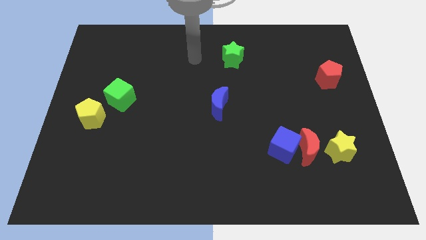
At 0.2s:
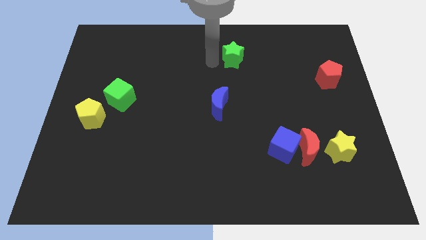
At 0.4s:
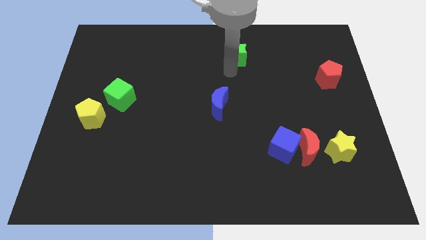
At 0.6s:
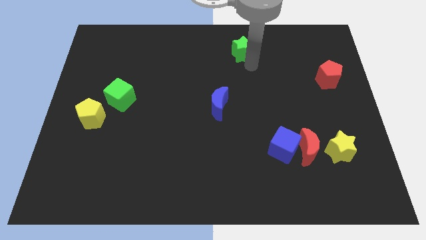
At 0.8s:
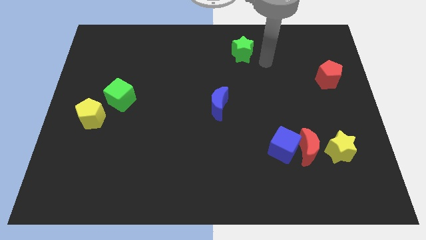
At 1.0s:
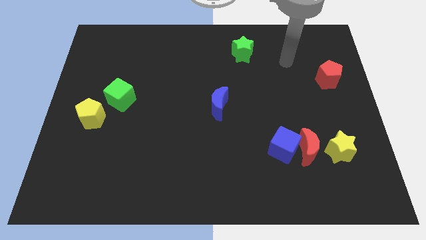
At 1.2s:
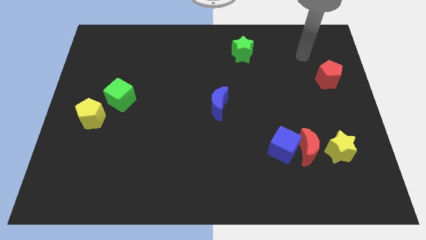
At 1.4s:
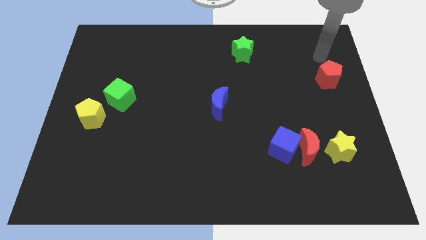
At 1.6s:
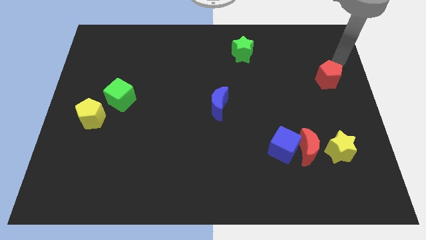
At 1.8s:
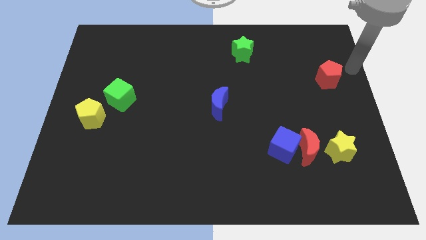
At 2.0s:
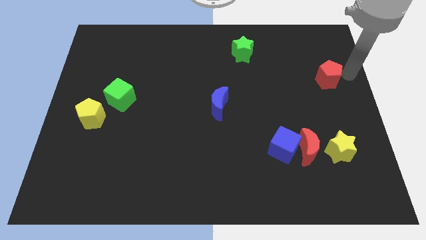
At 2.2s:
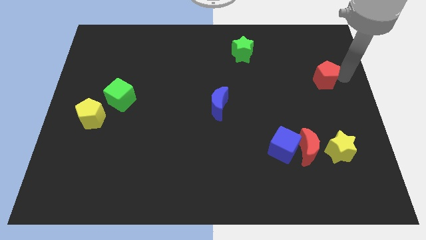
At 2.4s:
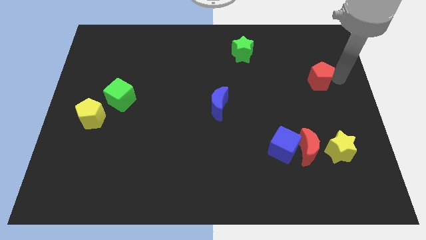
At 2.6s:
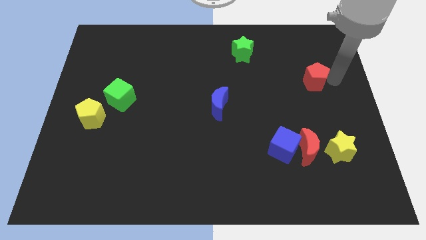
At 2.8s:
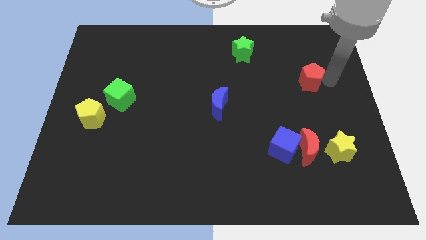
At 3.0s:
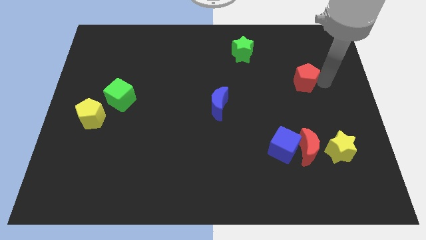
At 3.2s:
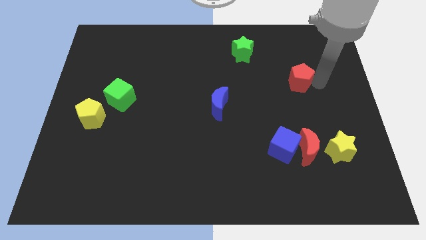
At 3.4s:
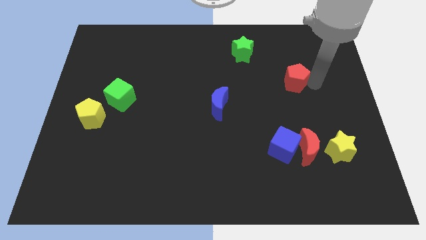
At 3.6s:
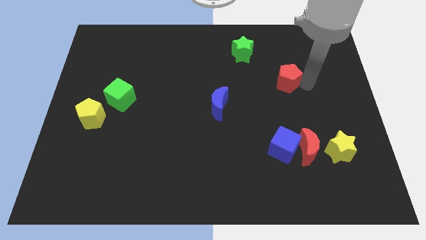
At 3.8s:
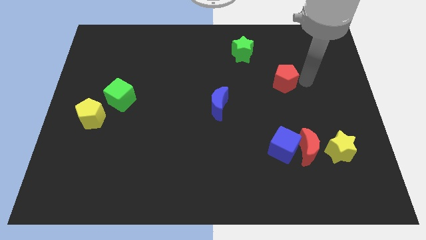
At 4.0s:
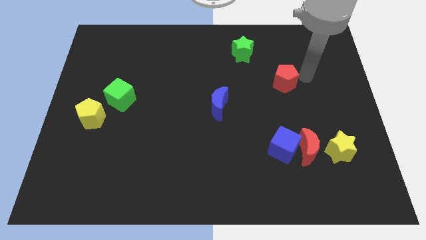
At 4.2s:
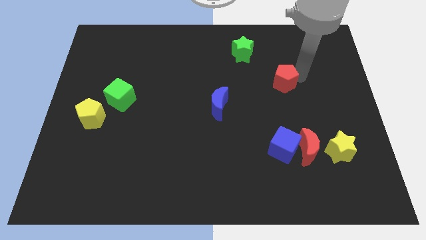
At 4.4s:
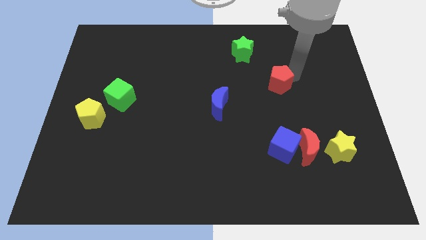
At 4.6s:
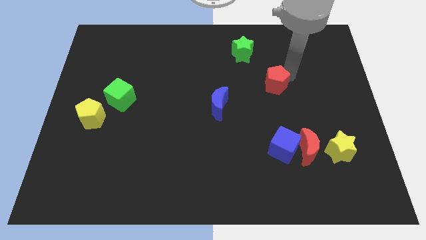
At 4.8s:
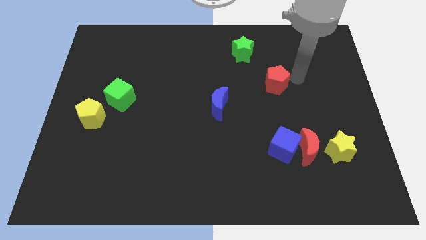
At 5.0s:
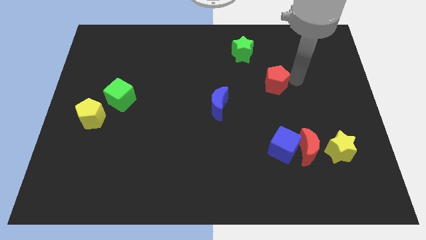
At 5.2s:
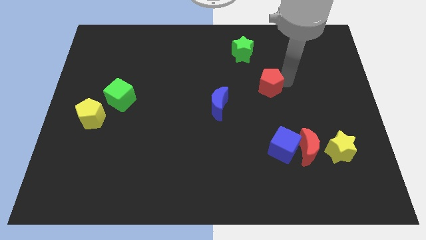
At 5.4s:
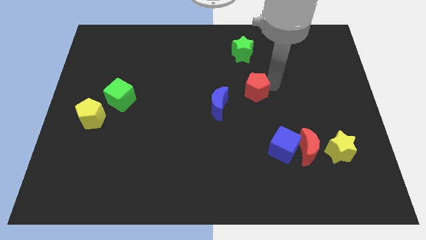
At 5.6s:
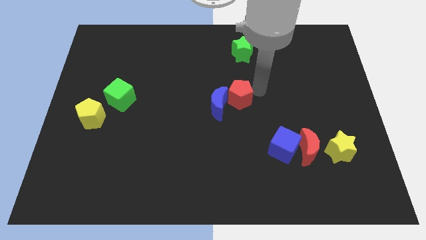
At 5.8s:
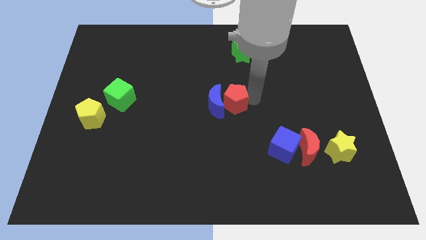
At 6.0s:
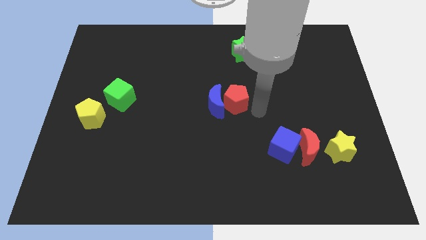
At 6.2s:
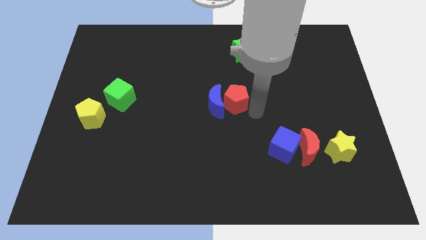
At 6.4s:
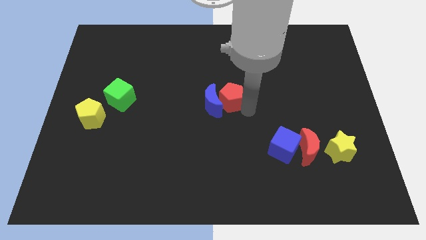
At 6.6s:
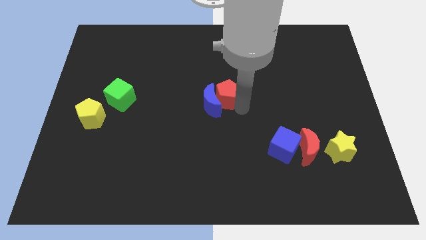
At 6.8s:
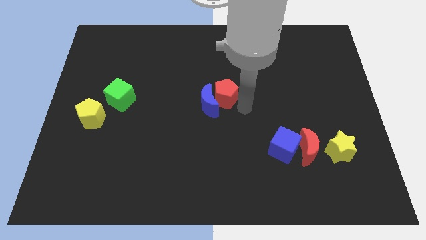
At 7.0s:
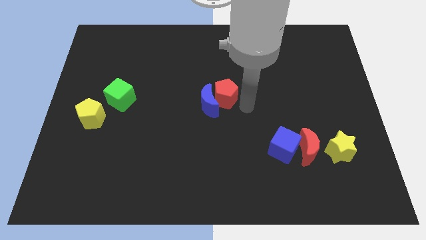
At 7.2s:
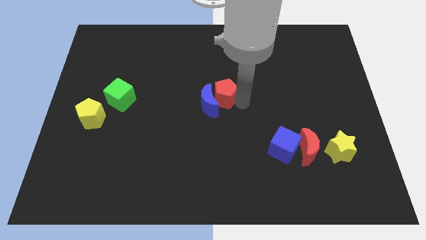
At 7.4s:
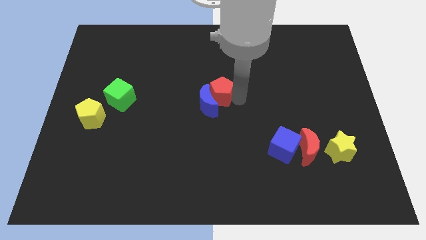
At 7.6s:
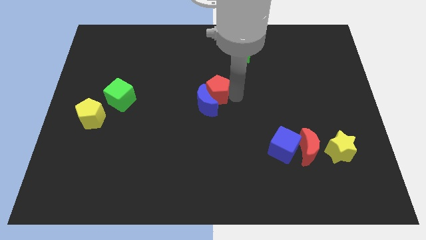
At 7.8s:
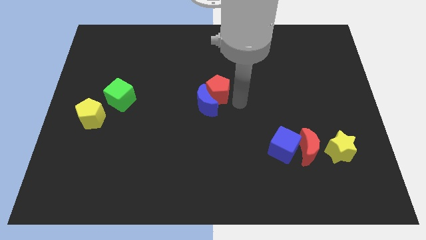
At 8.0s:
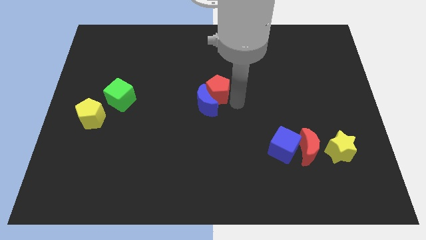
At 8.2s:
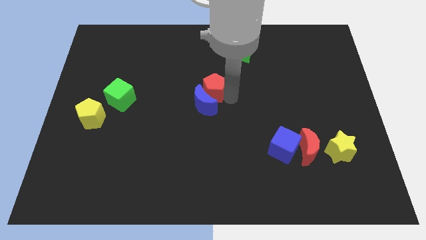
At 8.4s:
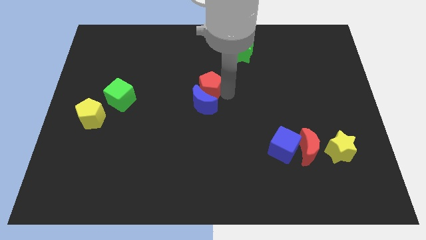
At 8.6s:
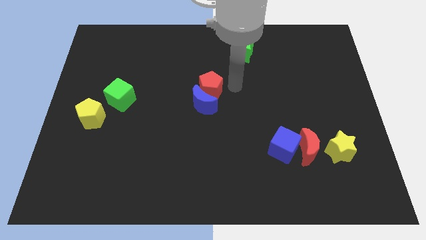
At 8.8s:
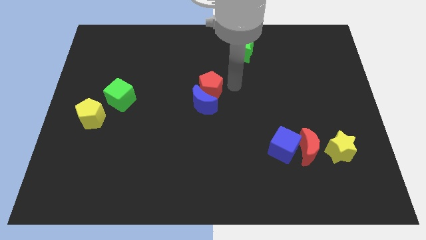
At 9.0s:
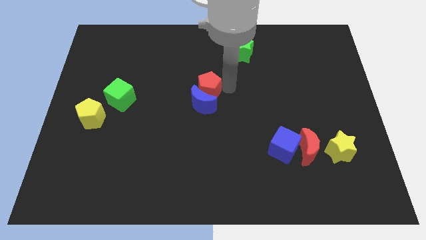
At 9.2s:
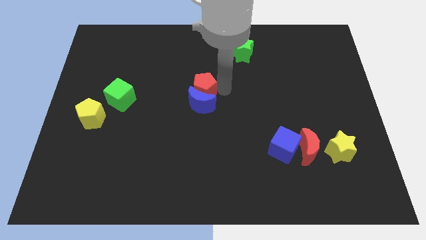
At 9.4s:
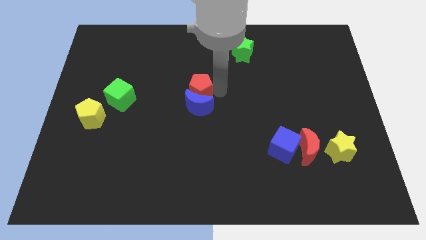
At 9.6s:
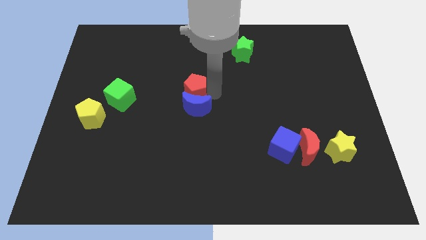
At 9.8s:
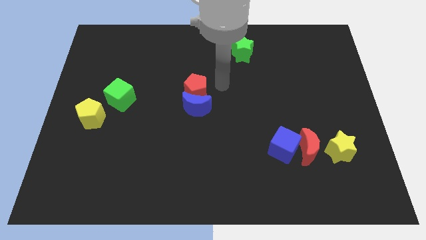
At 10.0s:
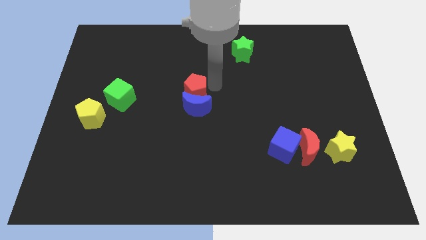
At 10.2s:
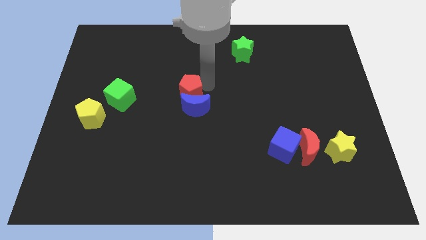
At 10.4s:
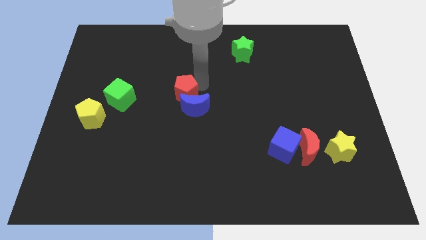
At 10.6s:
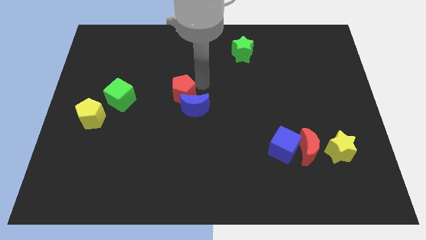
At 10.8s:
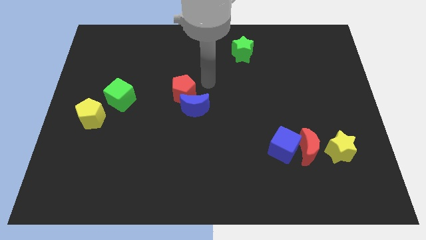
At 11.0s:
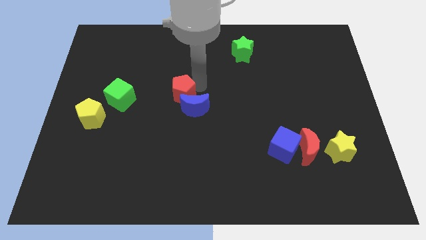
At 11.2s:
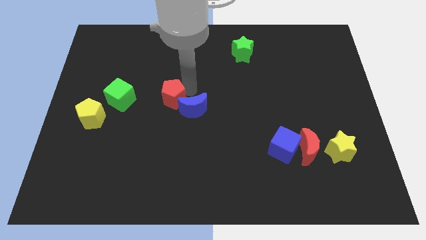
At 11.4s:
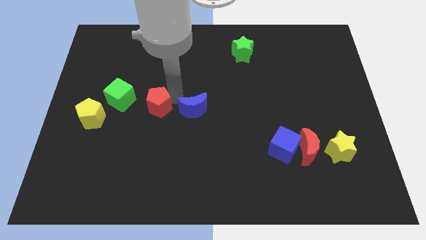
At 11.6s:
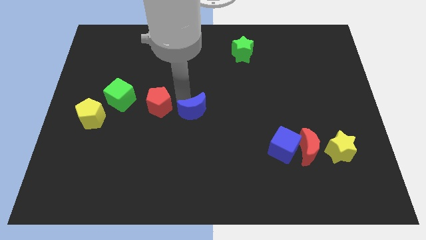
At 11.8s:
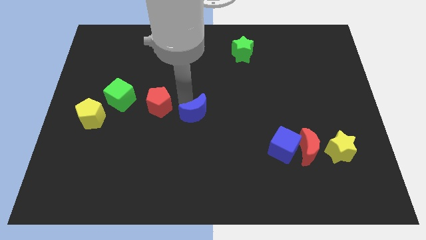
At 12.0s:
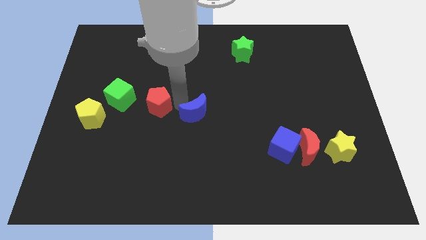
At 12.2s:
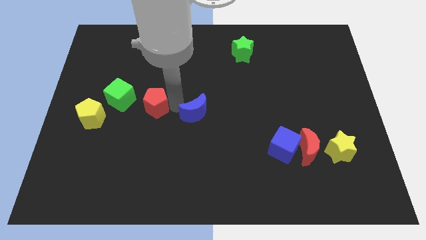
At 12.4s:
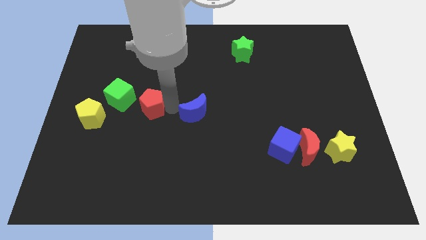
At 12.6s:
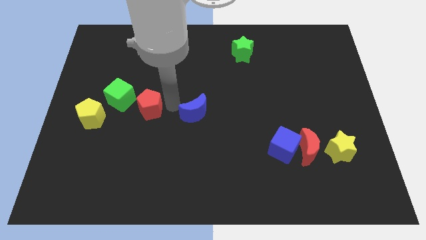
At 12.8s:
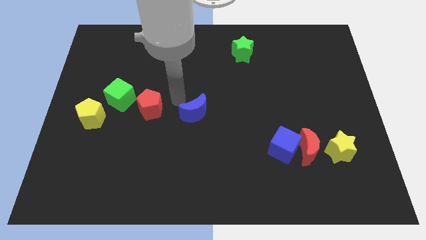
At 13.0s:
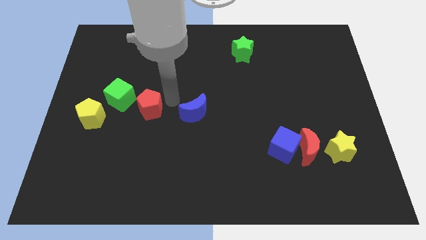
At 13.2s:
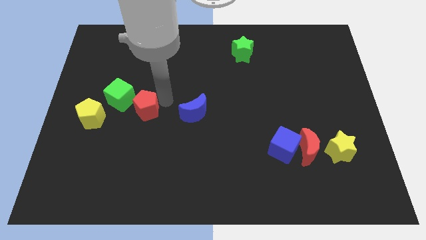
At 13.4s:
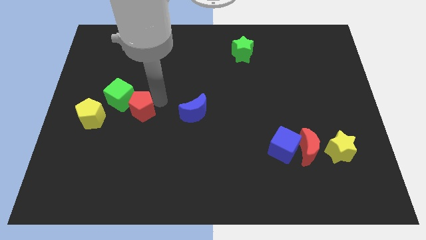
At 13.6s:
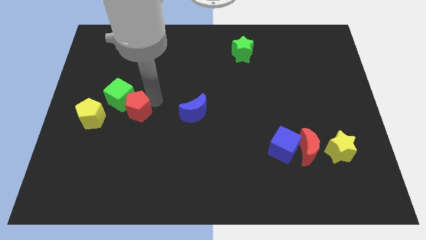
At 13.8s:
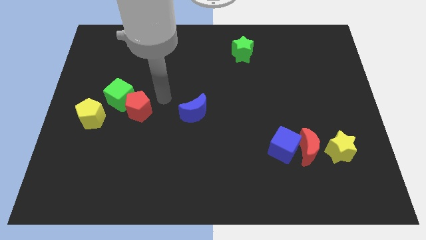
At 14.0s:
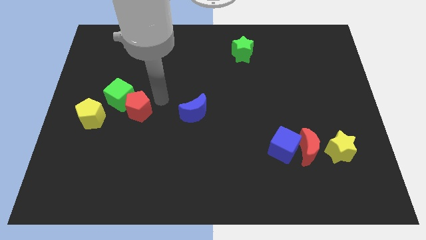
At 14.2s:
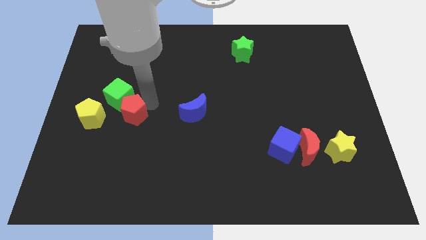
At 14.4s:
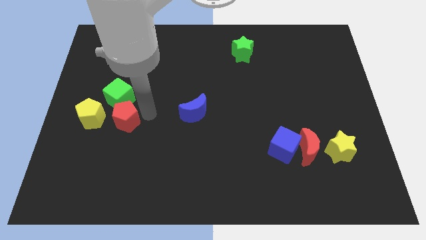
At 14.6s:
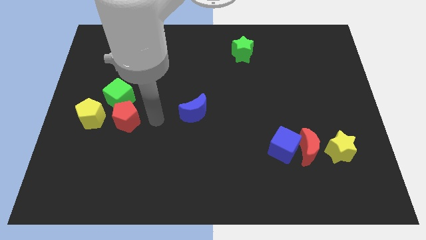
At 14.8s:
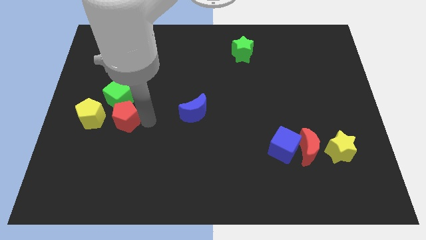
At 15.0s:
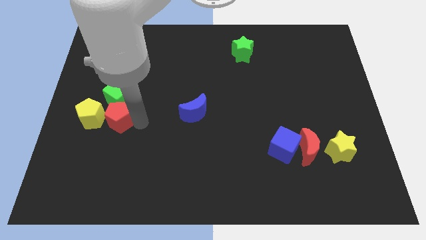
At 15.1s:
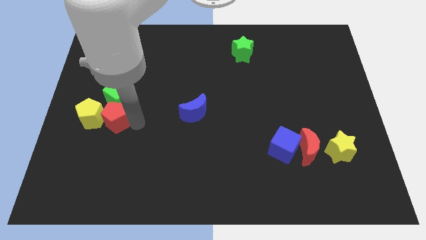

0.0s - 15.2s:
push the red pentagon close to the yellow pentagon
